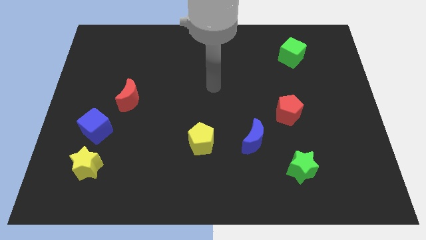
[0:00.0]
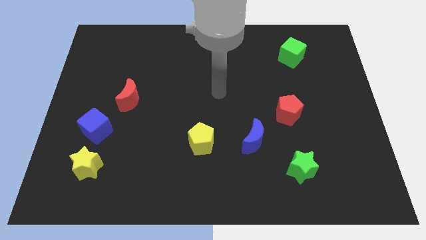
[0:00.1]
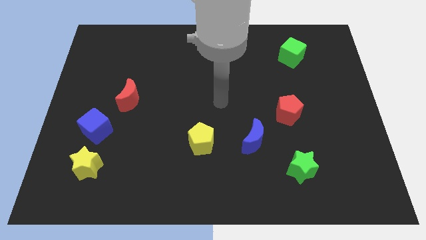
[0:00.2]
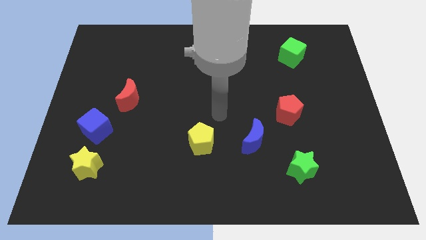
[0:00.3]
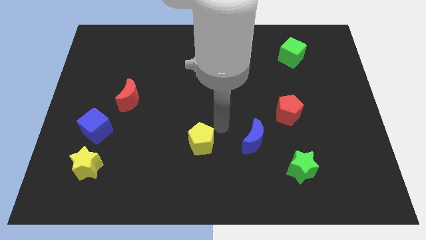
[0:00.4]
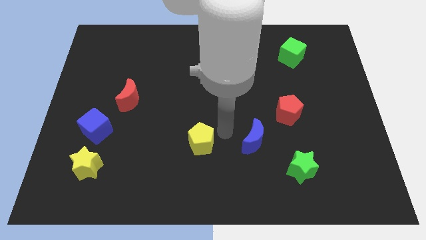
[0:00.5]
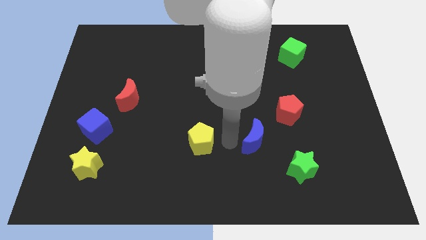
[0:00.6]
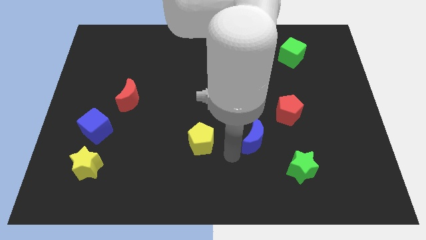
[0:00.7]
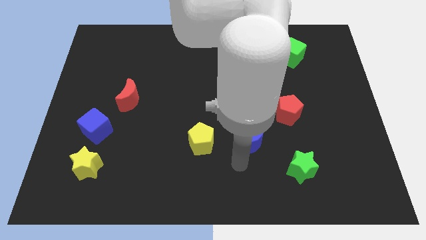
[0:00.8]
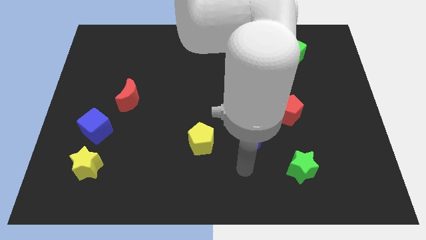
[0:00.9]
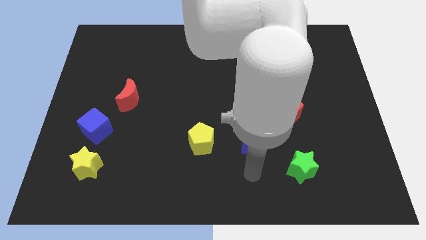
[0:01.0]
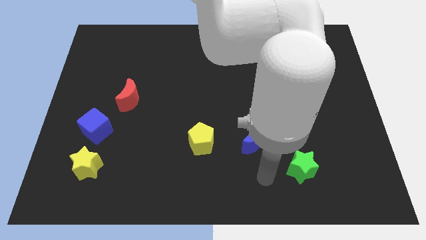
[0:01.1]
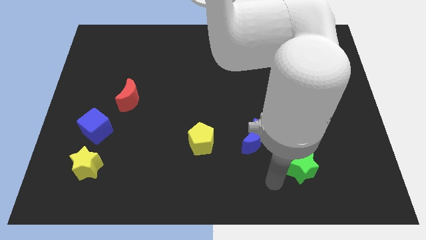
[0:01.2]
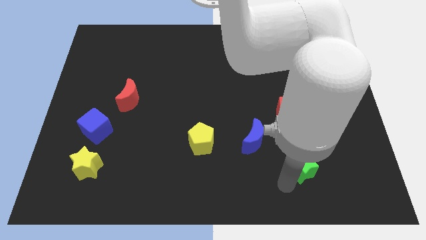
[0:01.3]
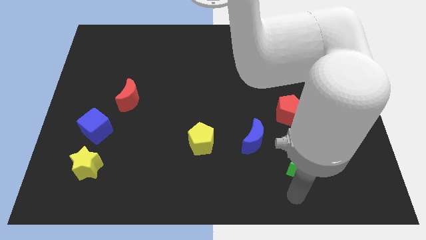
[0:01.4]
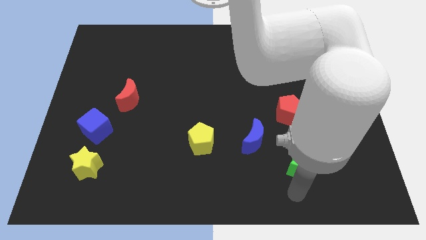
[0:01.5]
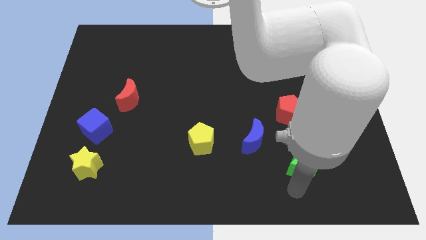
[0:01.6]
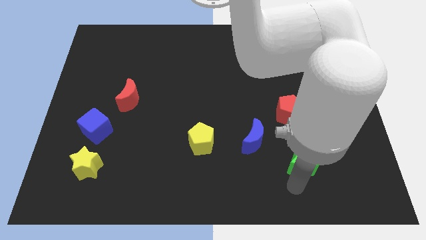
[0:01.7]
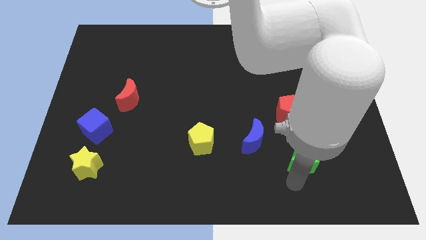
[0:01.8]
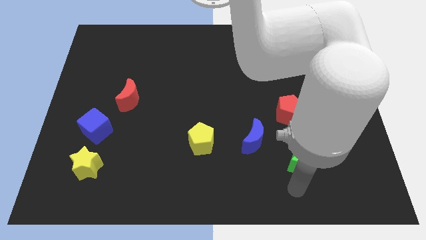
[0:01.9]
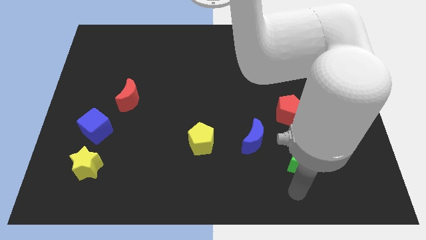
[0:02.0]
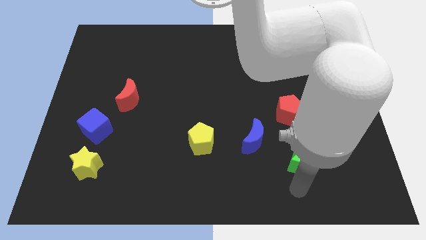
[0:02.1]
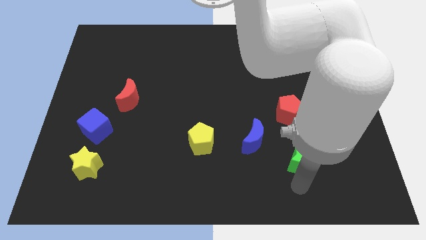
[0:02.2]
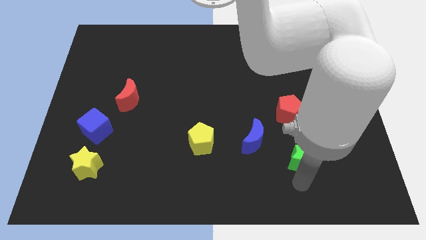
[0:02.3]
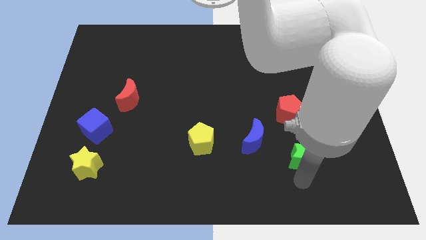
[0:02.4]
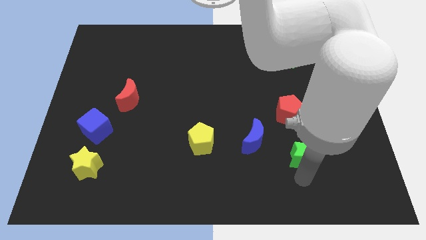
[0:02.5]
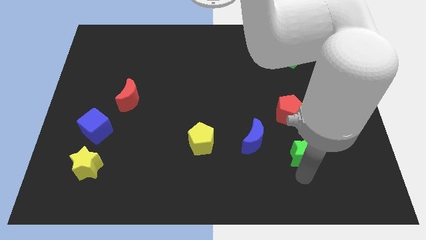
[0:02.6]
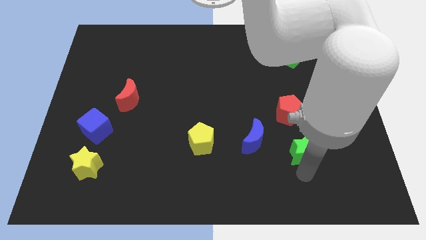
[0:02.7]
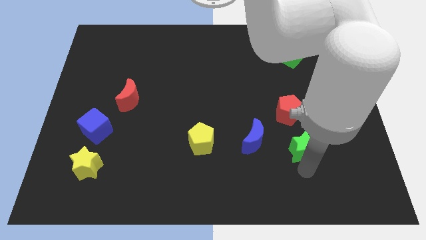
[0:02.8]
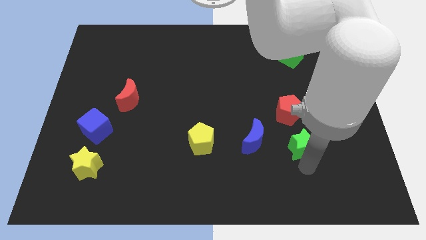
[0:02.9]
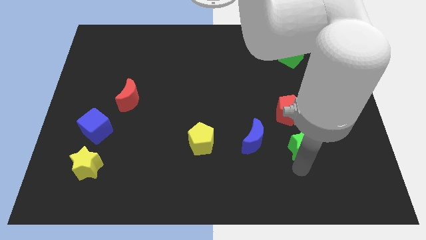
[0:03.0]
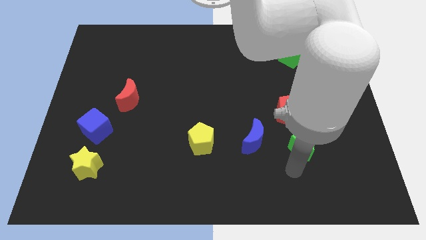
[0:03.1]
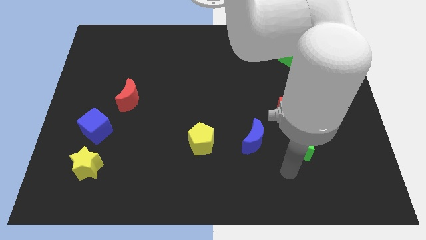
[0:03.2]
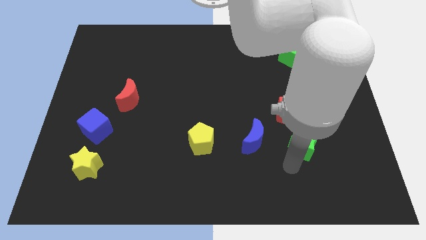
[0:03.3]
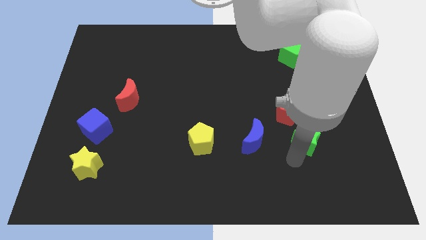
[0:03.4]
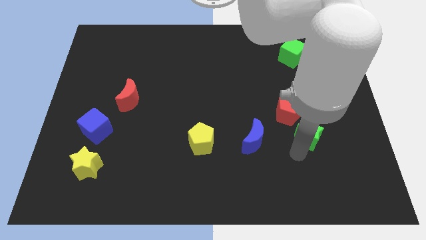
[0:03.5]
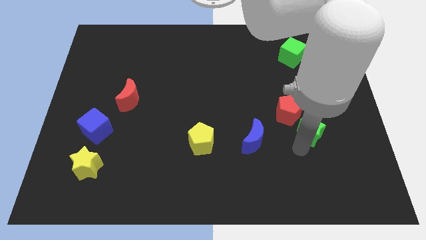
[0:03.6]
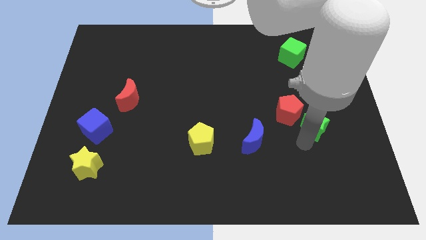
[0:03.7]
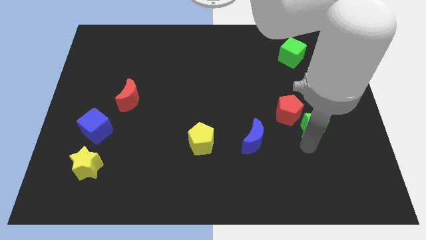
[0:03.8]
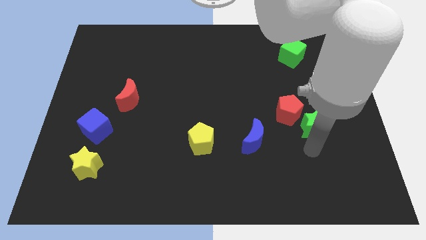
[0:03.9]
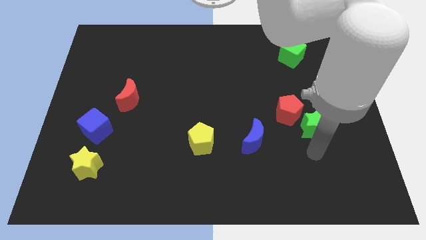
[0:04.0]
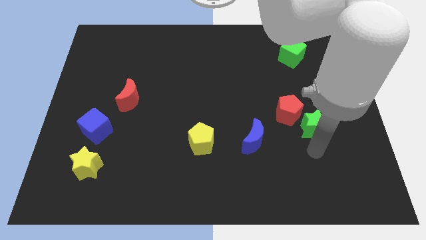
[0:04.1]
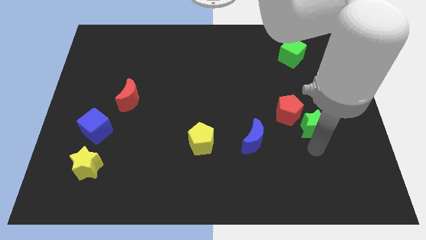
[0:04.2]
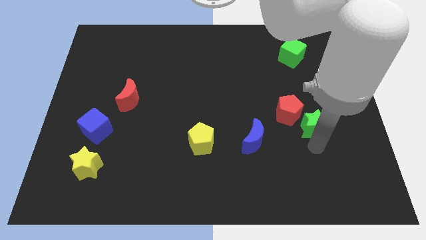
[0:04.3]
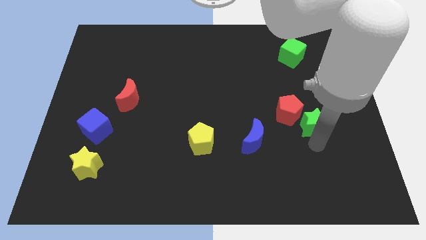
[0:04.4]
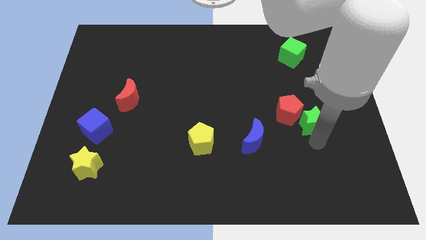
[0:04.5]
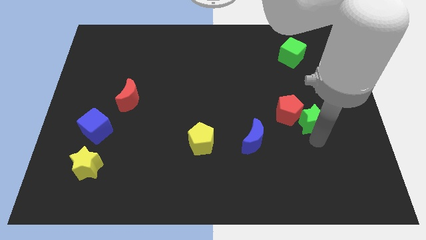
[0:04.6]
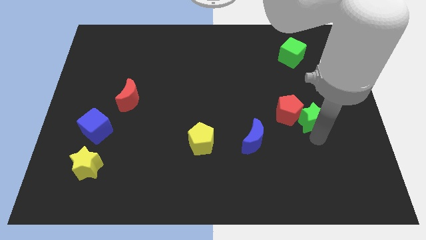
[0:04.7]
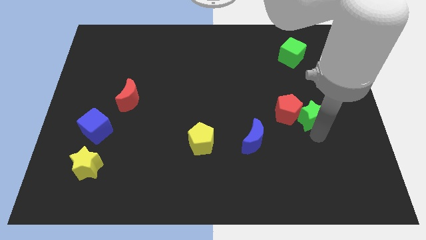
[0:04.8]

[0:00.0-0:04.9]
move the green star to the top right side of the red pentagon

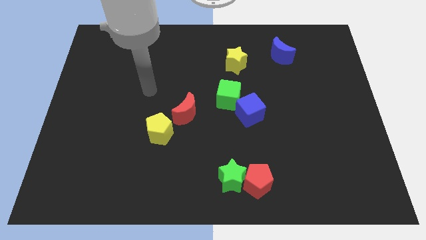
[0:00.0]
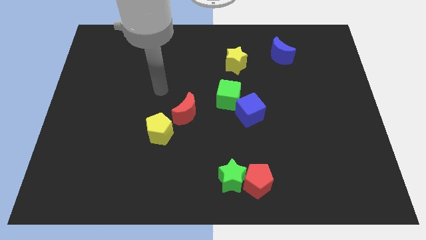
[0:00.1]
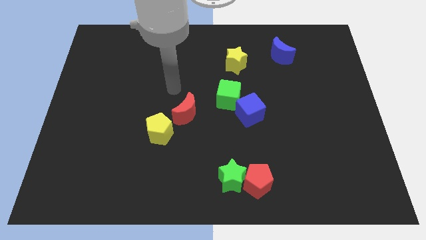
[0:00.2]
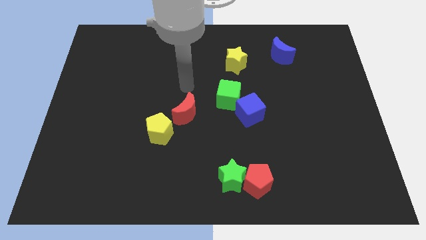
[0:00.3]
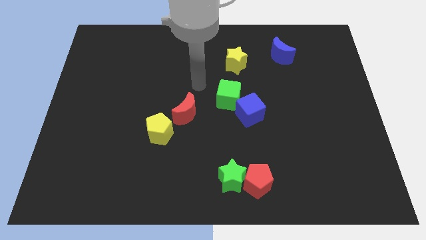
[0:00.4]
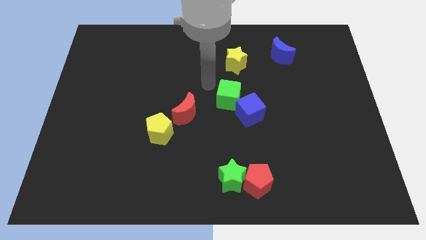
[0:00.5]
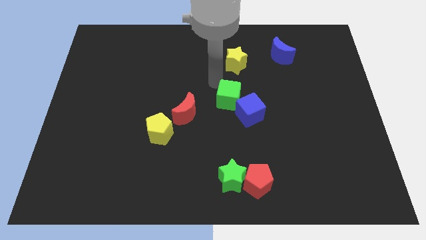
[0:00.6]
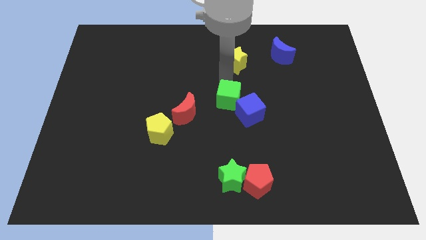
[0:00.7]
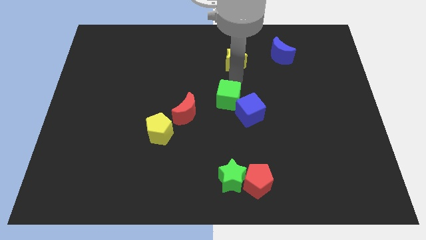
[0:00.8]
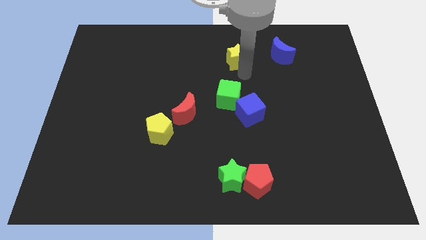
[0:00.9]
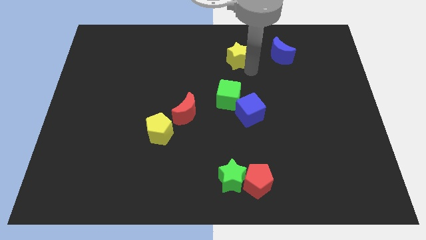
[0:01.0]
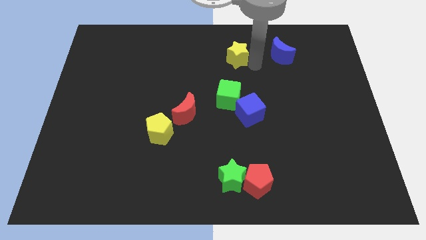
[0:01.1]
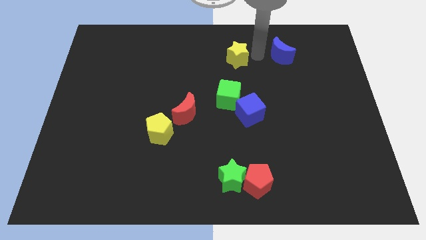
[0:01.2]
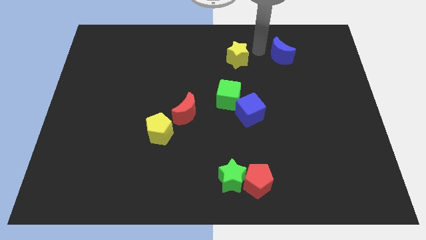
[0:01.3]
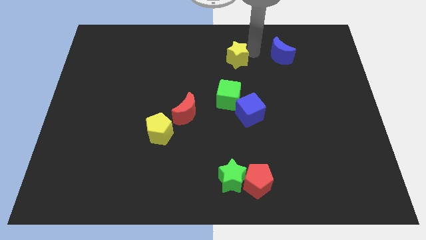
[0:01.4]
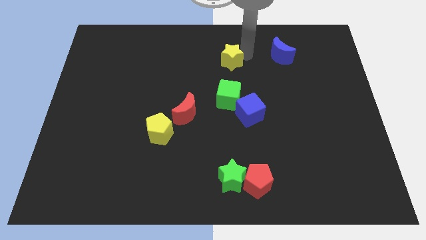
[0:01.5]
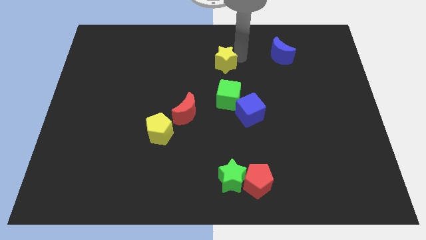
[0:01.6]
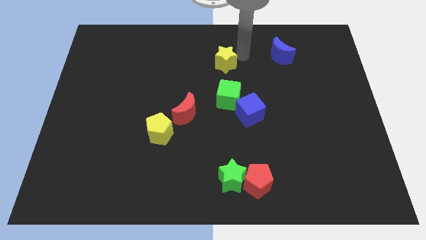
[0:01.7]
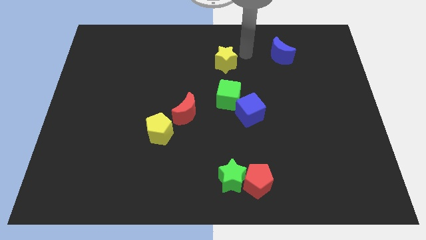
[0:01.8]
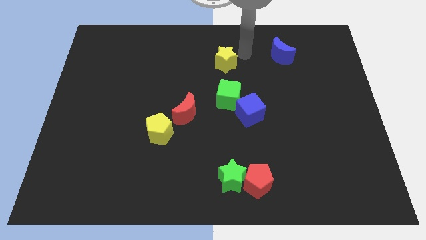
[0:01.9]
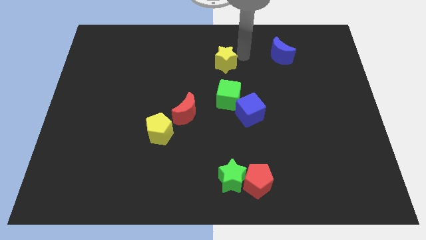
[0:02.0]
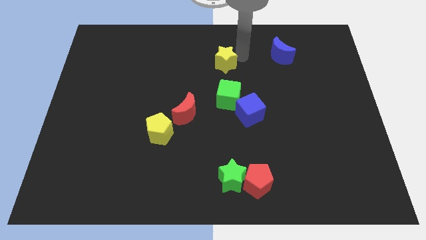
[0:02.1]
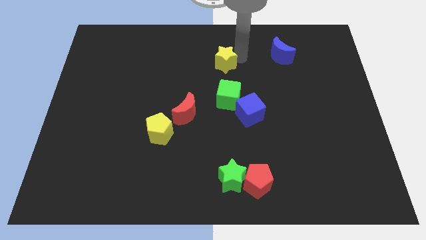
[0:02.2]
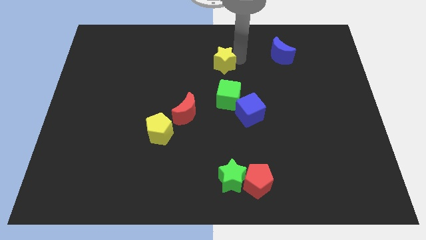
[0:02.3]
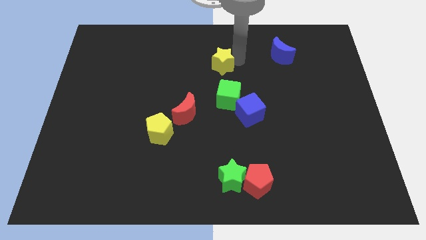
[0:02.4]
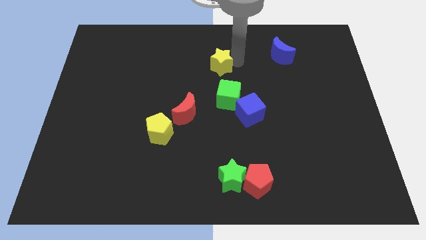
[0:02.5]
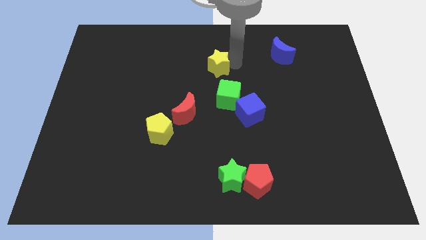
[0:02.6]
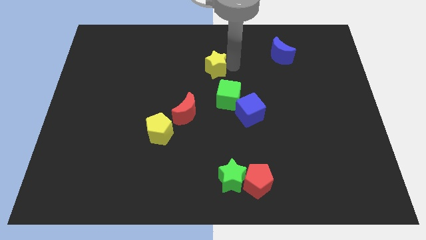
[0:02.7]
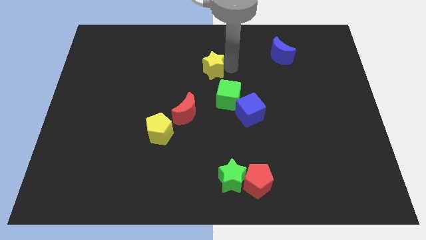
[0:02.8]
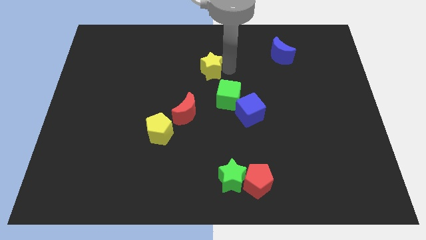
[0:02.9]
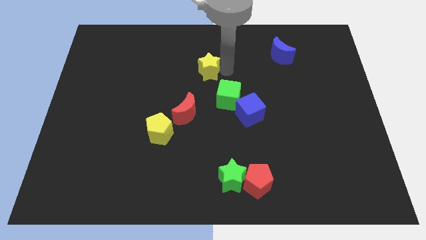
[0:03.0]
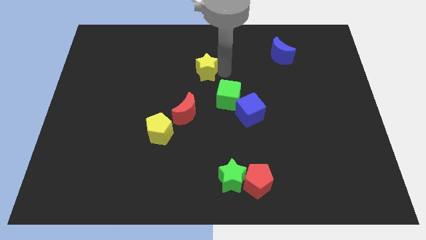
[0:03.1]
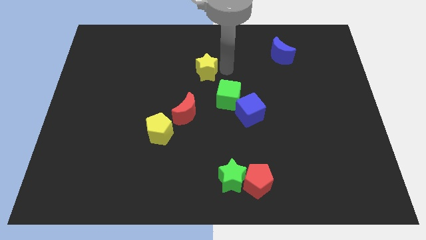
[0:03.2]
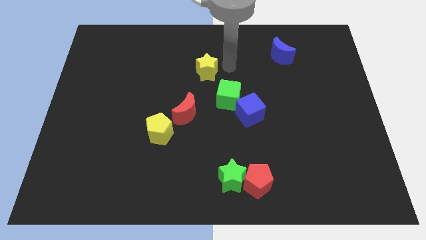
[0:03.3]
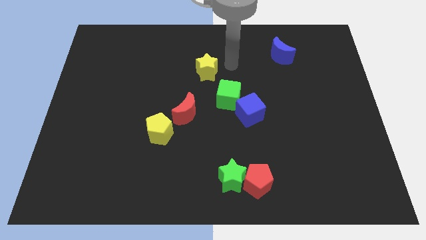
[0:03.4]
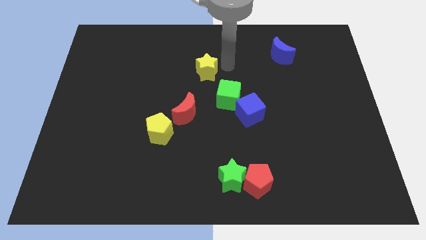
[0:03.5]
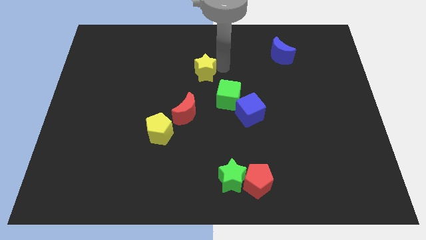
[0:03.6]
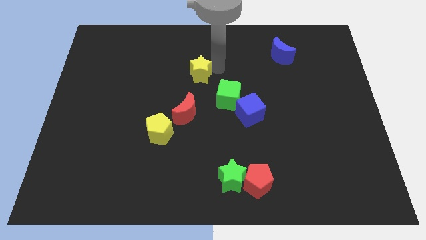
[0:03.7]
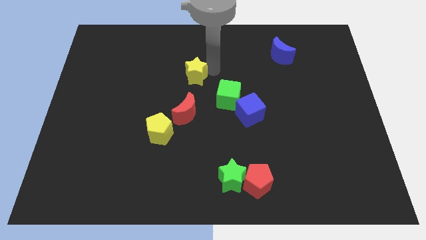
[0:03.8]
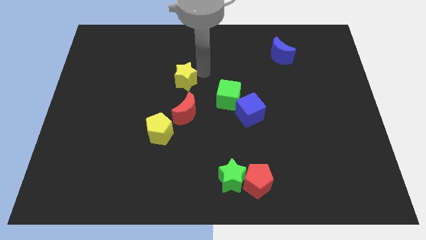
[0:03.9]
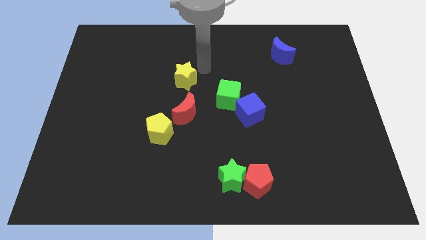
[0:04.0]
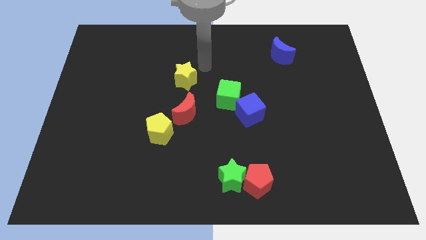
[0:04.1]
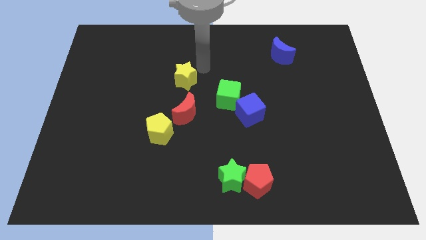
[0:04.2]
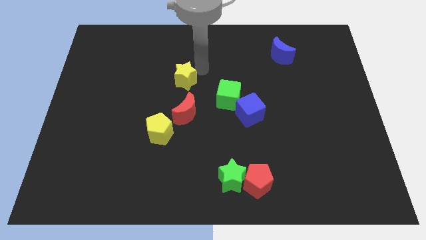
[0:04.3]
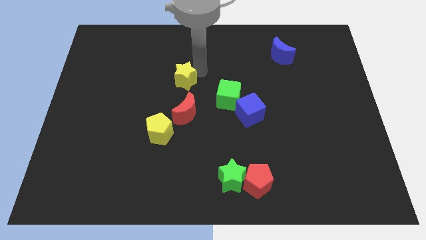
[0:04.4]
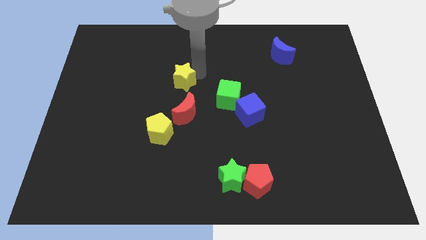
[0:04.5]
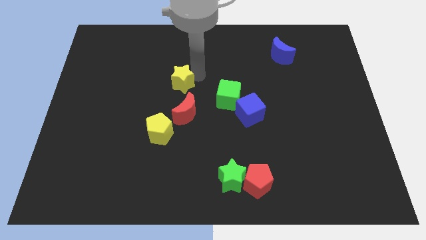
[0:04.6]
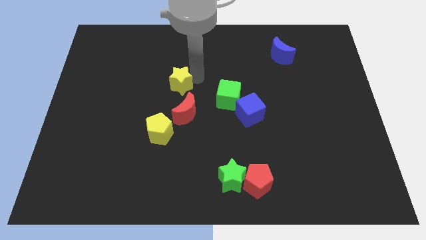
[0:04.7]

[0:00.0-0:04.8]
move the yellow star to the top side of the yellow pentagon
